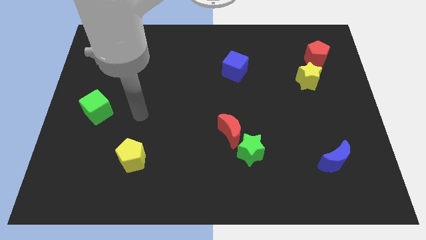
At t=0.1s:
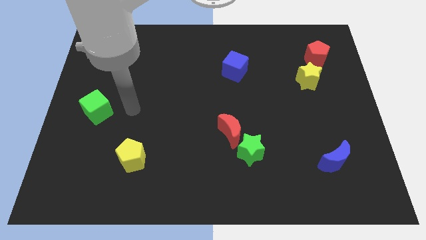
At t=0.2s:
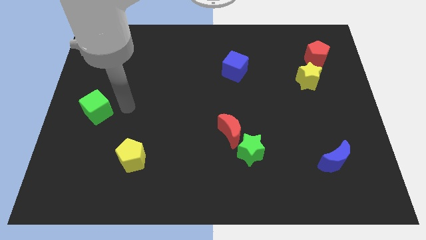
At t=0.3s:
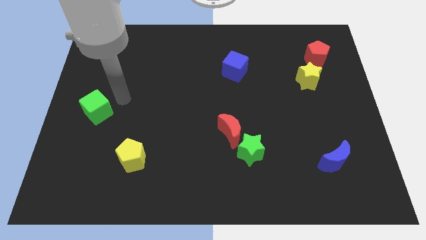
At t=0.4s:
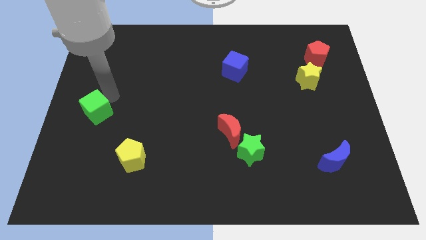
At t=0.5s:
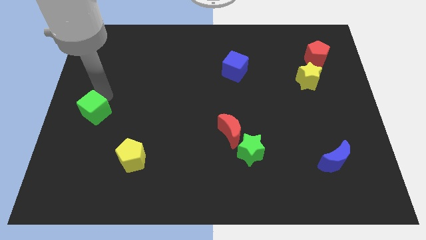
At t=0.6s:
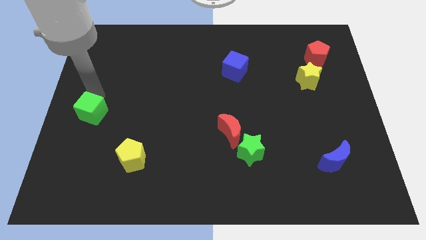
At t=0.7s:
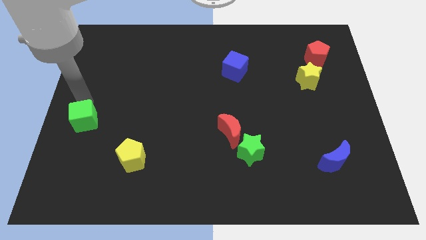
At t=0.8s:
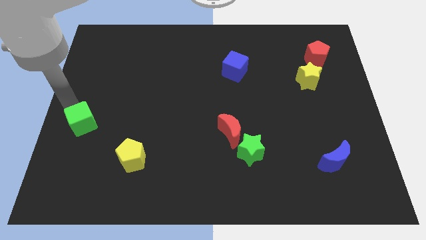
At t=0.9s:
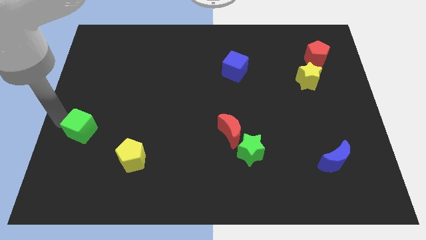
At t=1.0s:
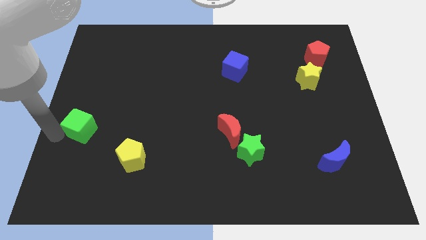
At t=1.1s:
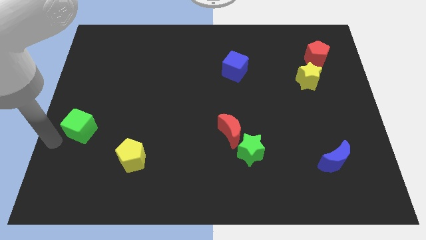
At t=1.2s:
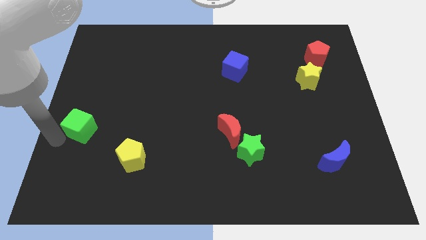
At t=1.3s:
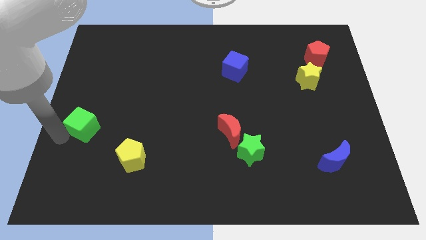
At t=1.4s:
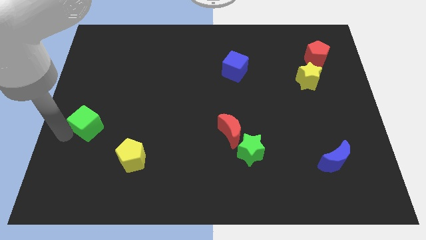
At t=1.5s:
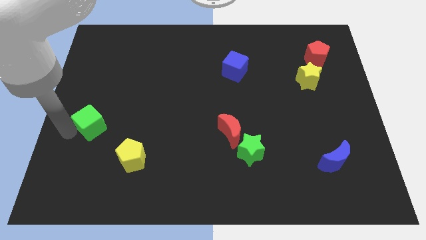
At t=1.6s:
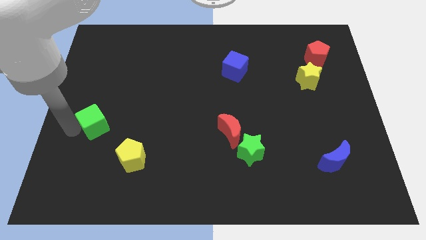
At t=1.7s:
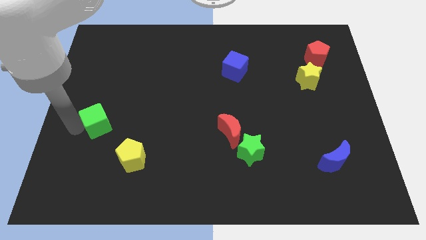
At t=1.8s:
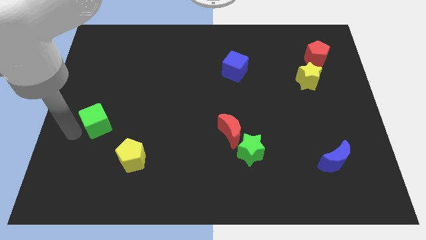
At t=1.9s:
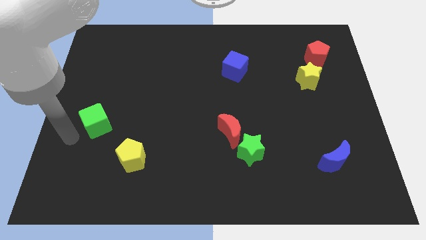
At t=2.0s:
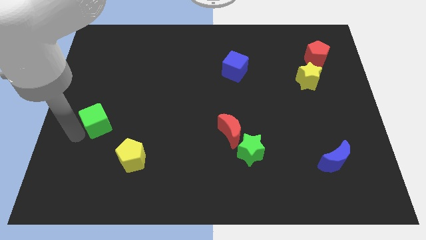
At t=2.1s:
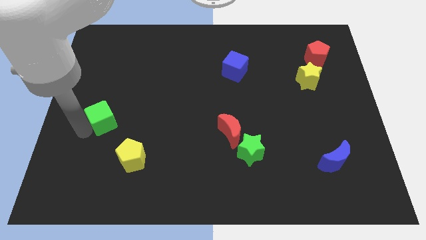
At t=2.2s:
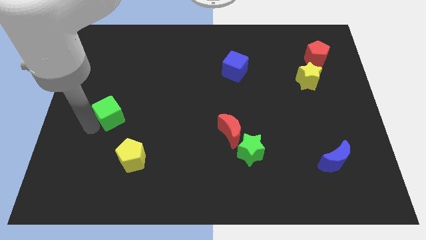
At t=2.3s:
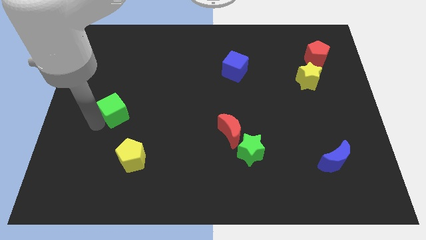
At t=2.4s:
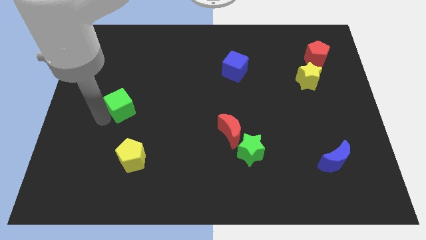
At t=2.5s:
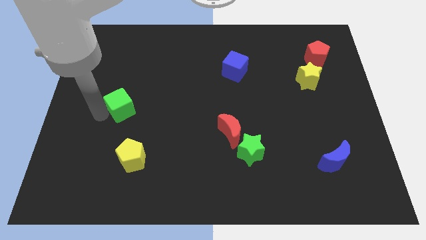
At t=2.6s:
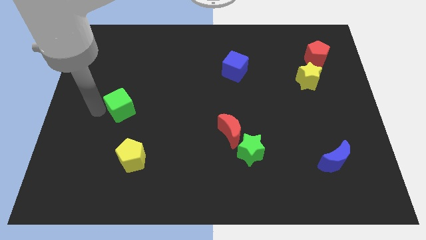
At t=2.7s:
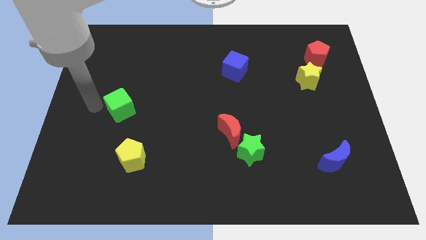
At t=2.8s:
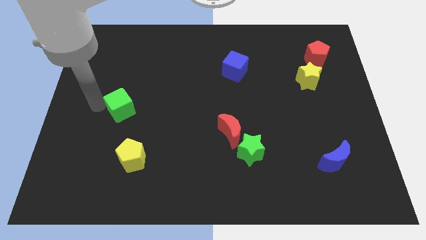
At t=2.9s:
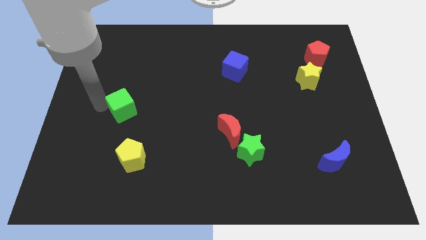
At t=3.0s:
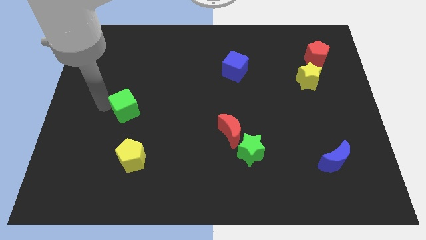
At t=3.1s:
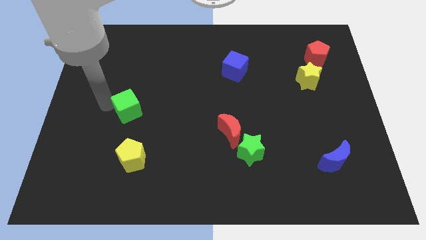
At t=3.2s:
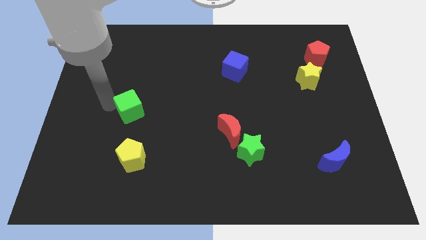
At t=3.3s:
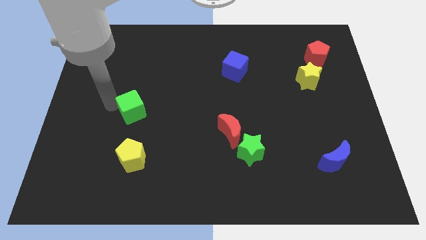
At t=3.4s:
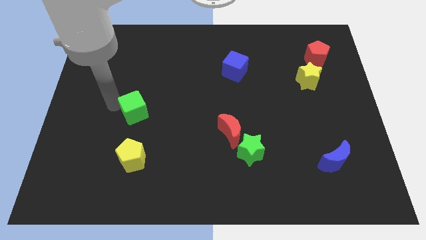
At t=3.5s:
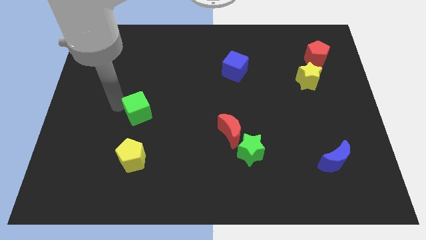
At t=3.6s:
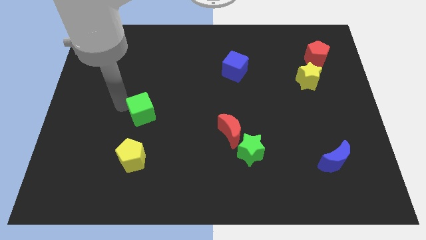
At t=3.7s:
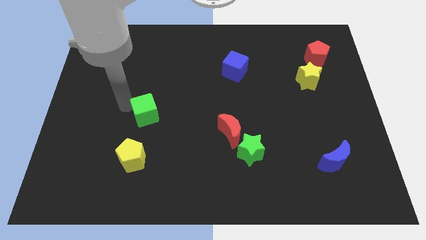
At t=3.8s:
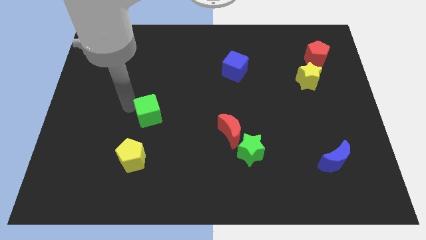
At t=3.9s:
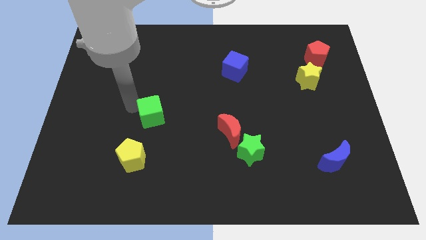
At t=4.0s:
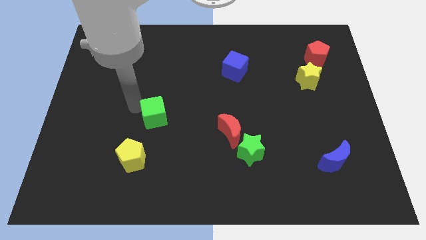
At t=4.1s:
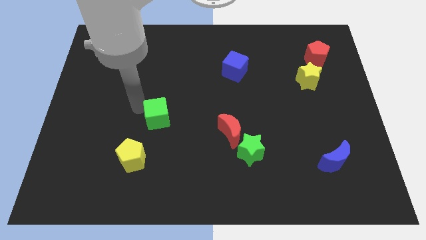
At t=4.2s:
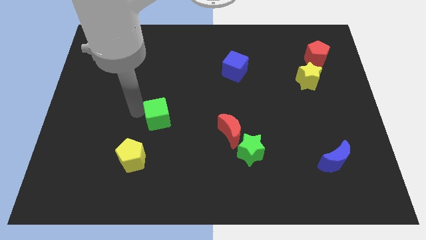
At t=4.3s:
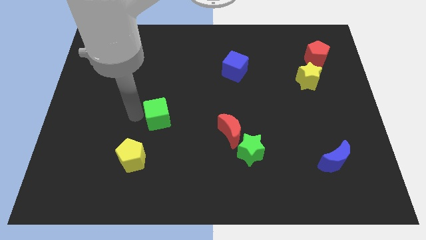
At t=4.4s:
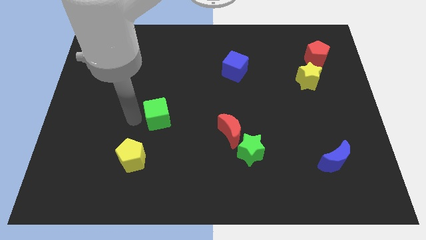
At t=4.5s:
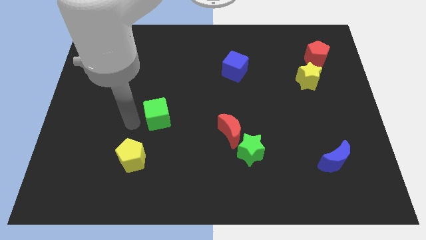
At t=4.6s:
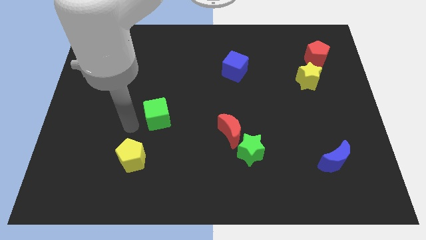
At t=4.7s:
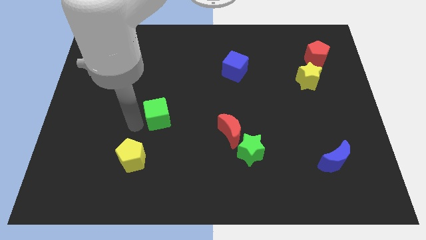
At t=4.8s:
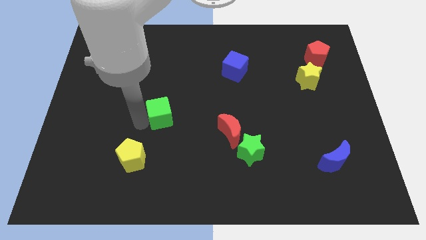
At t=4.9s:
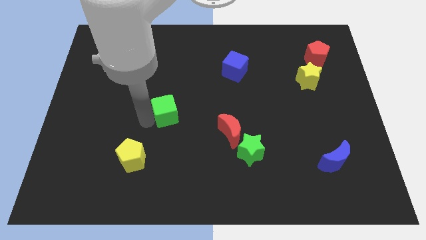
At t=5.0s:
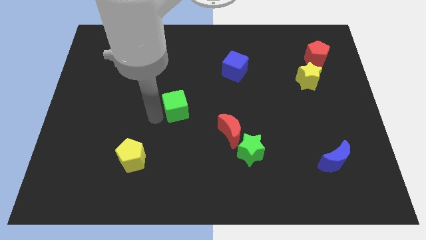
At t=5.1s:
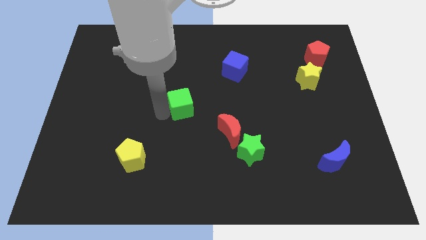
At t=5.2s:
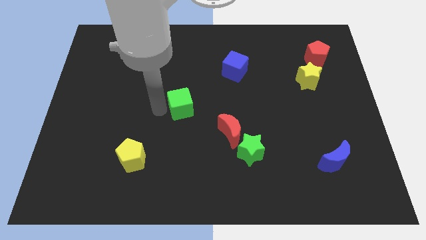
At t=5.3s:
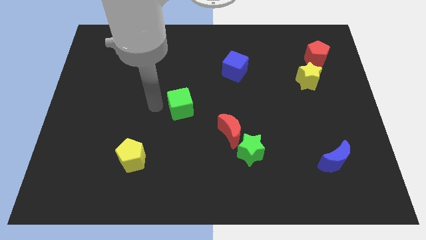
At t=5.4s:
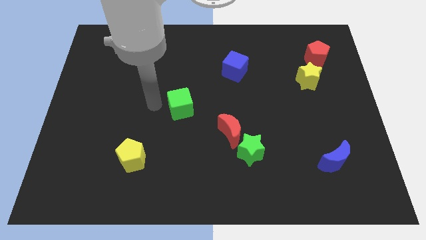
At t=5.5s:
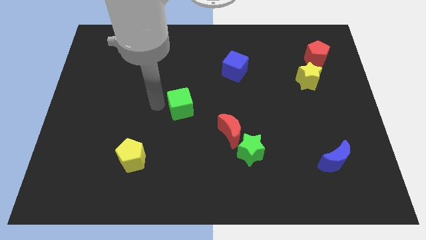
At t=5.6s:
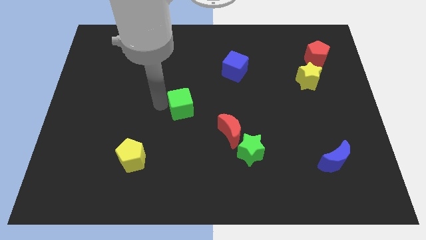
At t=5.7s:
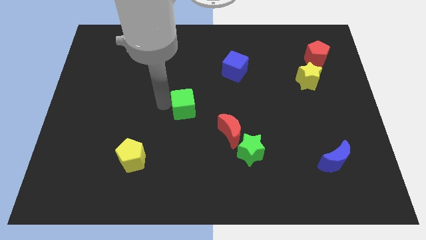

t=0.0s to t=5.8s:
push the green cube right

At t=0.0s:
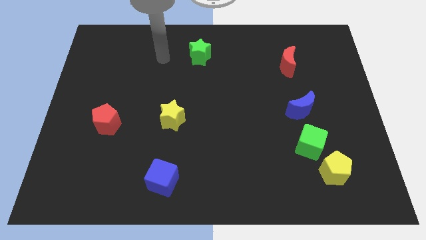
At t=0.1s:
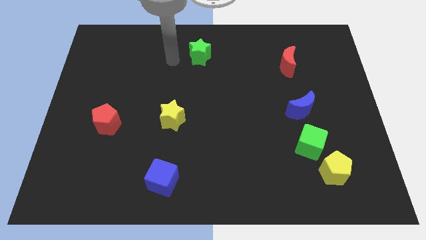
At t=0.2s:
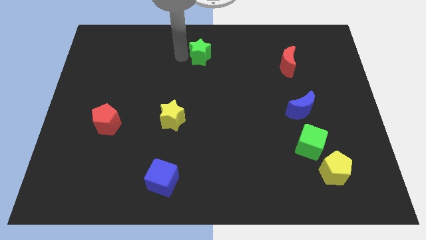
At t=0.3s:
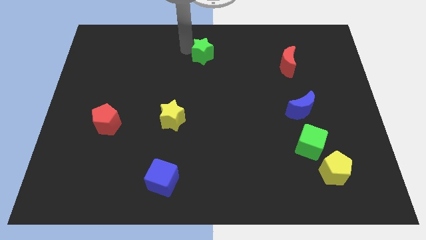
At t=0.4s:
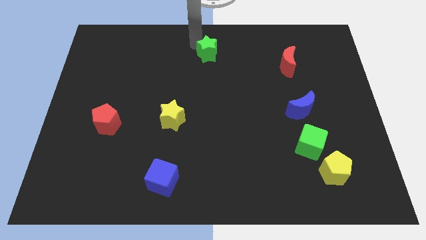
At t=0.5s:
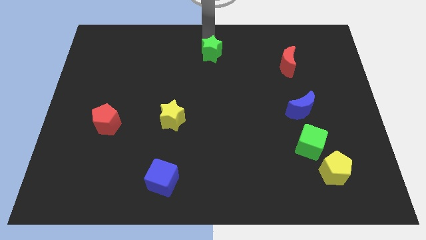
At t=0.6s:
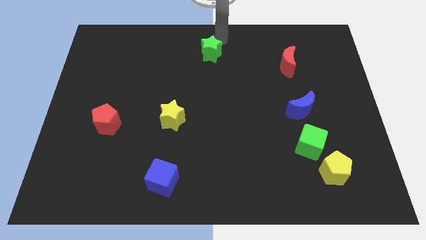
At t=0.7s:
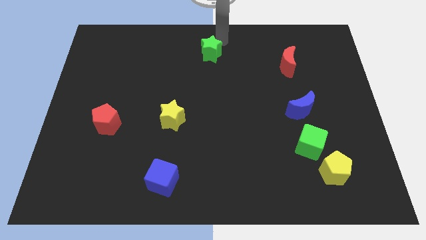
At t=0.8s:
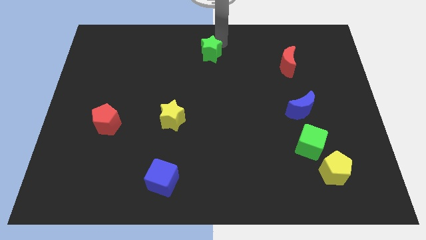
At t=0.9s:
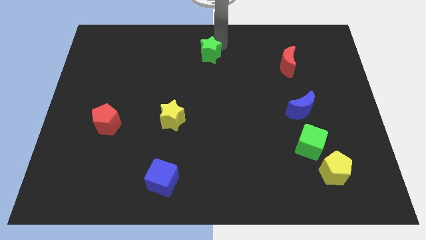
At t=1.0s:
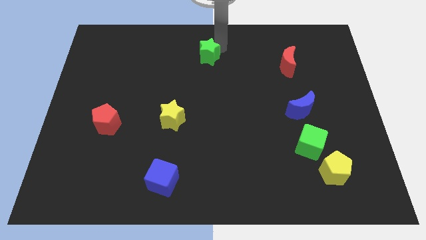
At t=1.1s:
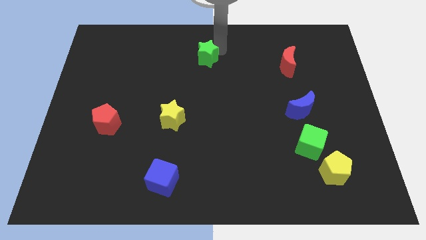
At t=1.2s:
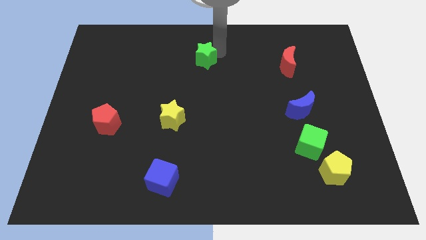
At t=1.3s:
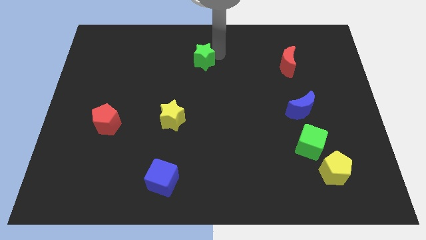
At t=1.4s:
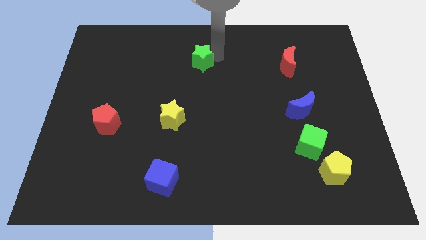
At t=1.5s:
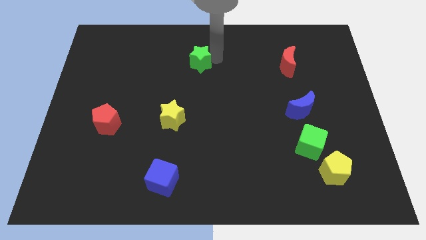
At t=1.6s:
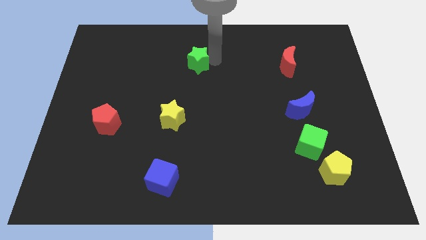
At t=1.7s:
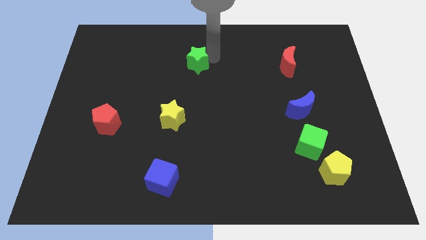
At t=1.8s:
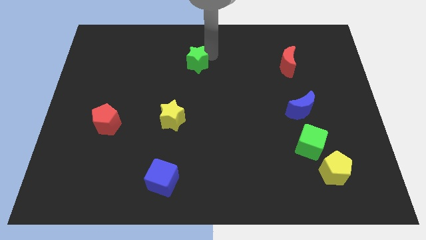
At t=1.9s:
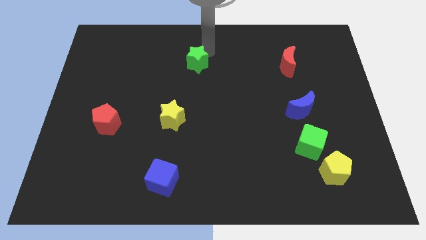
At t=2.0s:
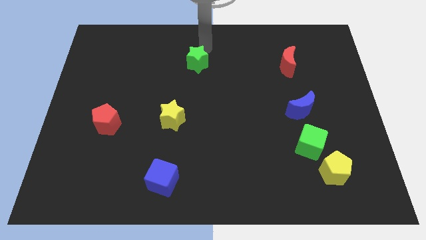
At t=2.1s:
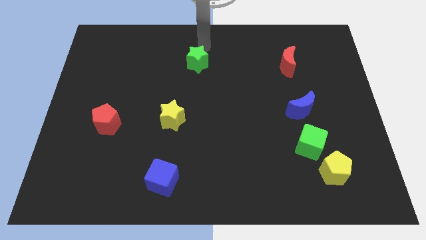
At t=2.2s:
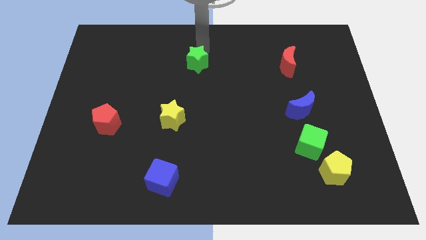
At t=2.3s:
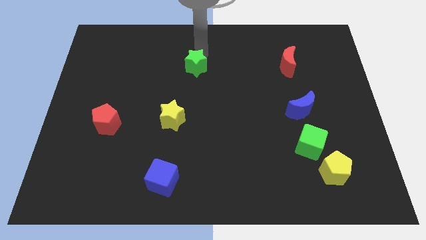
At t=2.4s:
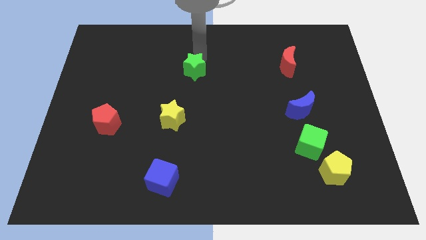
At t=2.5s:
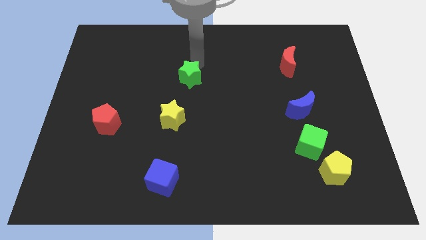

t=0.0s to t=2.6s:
push the green star downwards slightly
